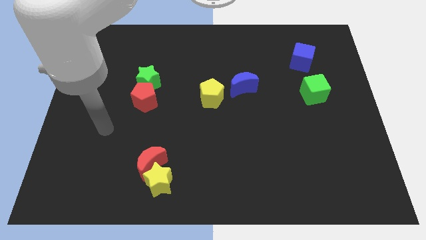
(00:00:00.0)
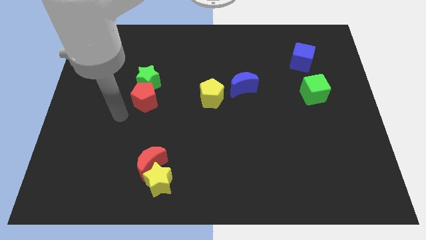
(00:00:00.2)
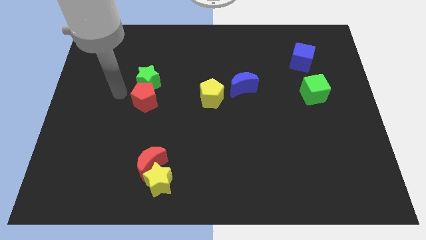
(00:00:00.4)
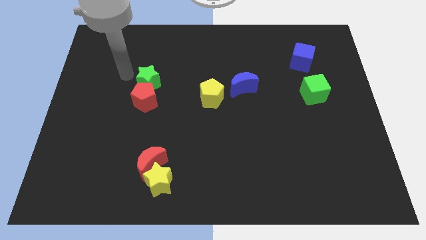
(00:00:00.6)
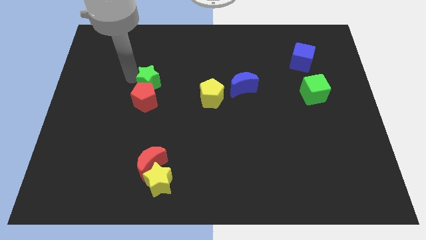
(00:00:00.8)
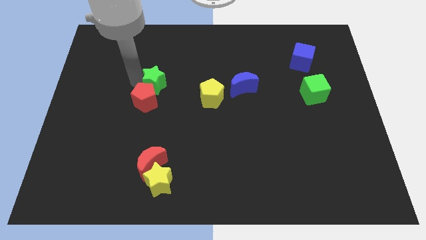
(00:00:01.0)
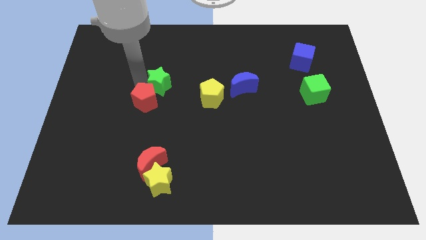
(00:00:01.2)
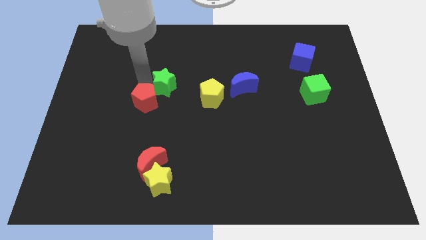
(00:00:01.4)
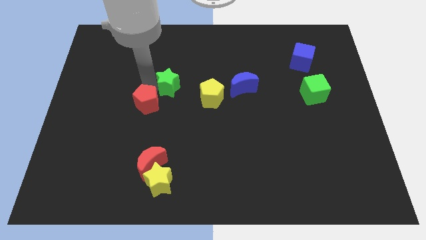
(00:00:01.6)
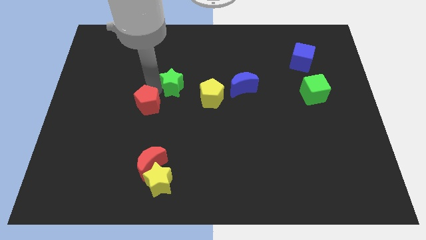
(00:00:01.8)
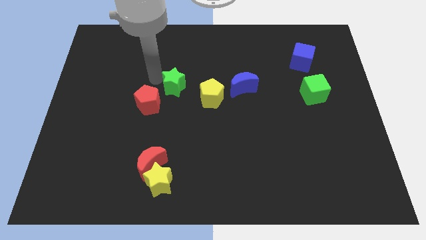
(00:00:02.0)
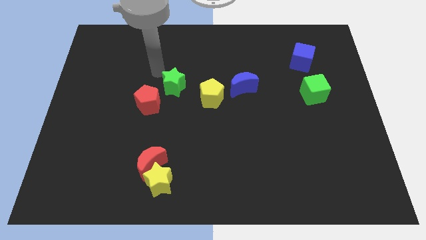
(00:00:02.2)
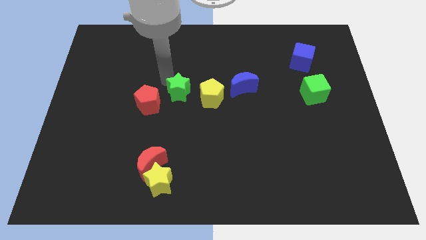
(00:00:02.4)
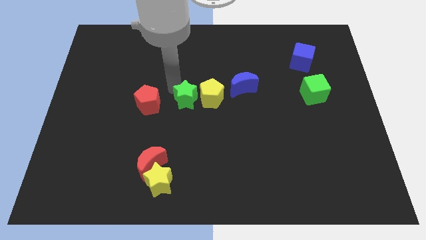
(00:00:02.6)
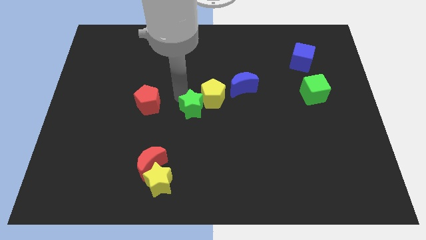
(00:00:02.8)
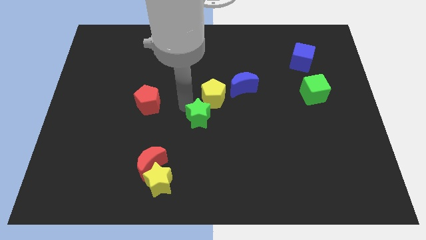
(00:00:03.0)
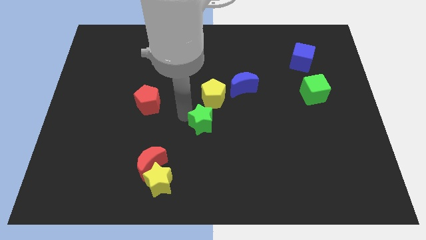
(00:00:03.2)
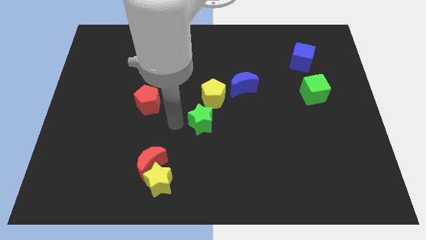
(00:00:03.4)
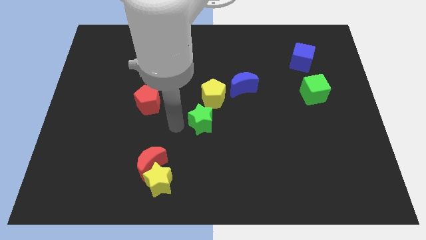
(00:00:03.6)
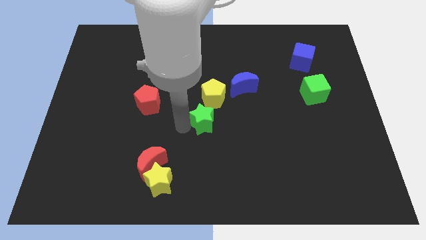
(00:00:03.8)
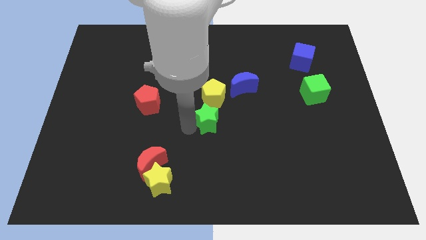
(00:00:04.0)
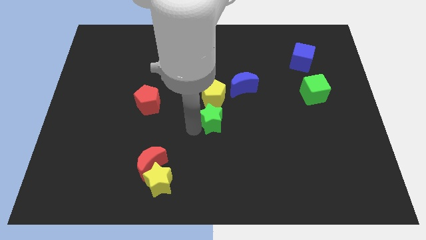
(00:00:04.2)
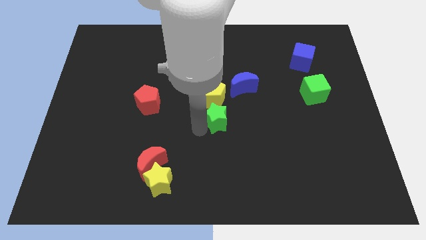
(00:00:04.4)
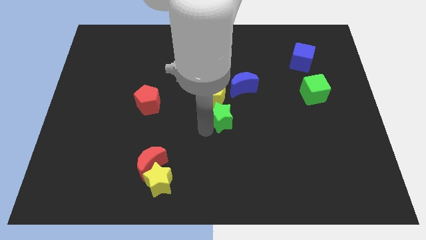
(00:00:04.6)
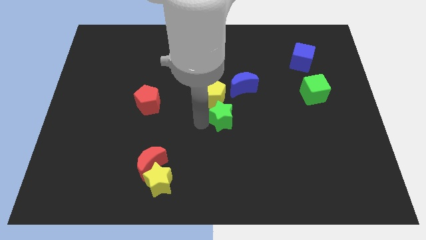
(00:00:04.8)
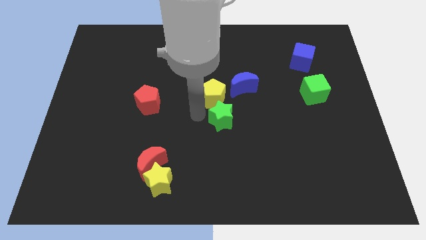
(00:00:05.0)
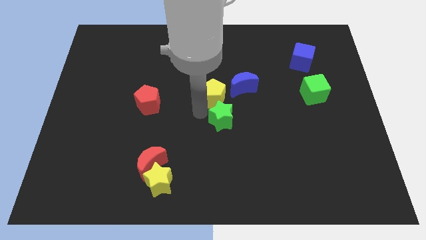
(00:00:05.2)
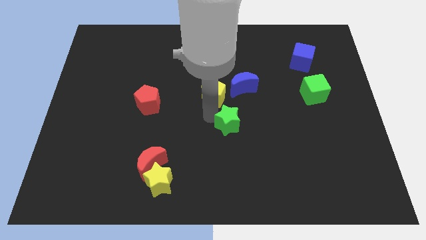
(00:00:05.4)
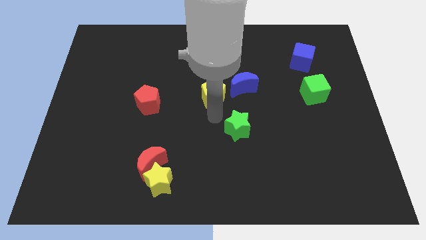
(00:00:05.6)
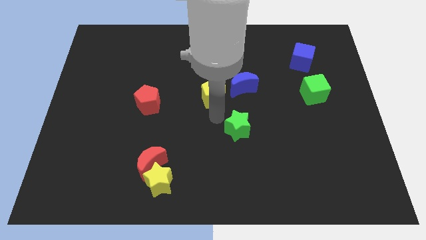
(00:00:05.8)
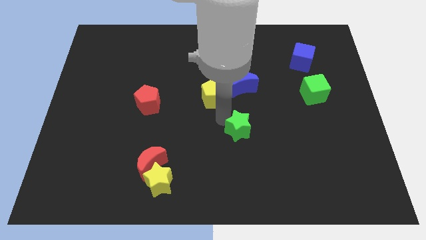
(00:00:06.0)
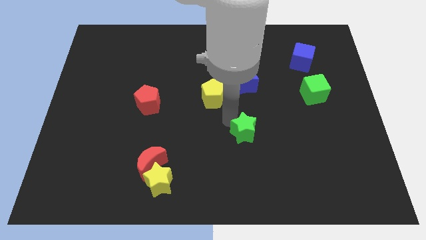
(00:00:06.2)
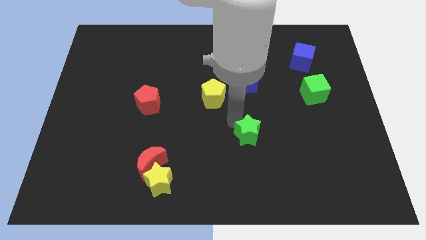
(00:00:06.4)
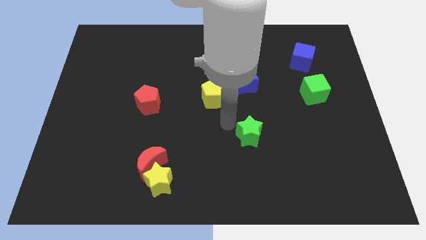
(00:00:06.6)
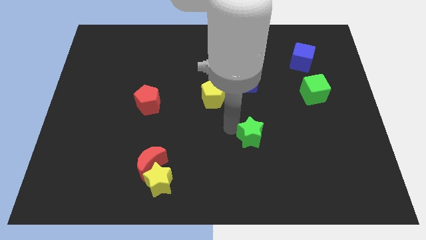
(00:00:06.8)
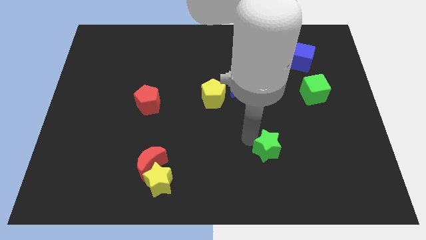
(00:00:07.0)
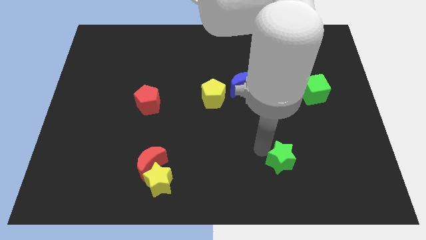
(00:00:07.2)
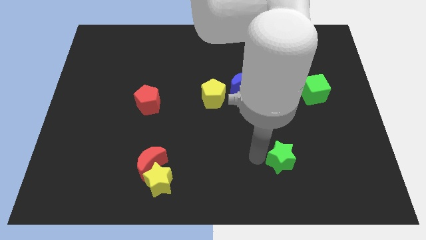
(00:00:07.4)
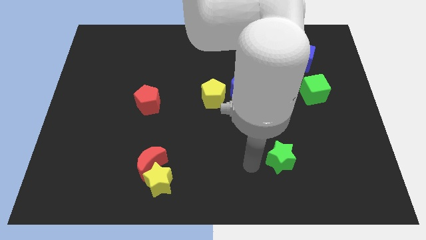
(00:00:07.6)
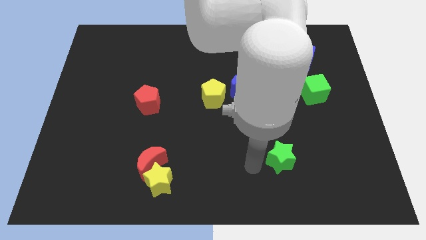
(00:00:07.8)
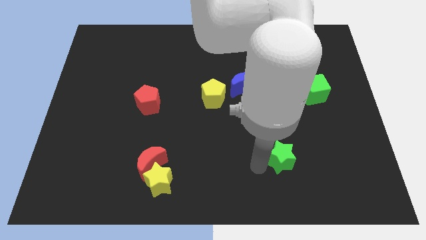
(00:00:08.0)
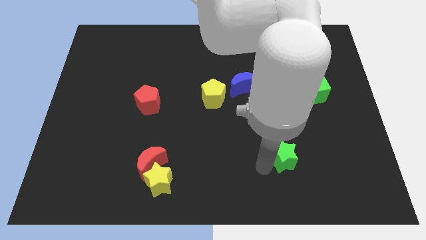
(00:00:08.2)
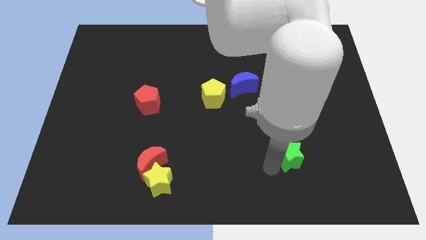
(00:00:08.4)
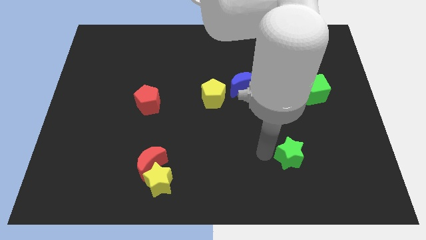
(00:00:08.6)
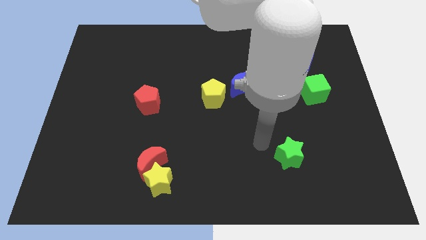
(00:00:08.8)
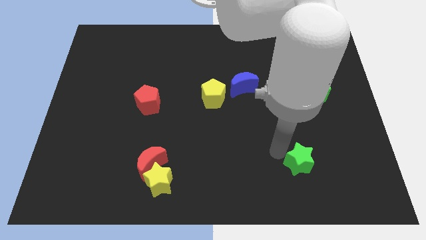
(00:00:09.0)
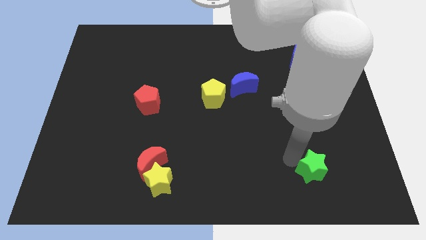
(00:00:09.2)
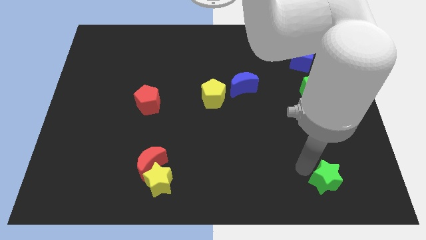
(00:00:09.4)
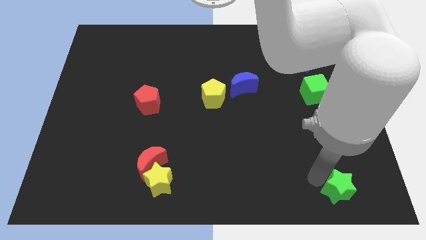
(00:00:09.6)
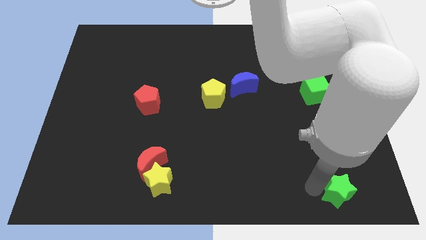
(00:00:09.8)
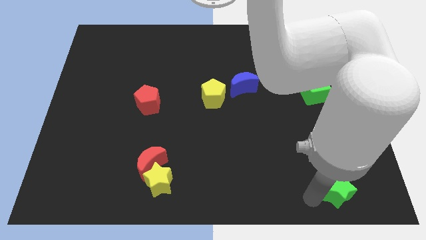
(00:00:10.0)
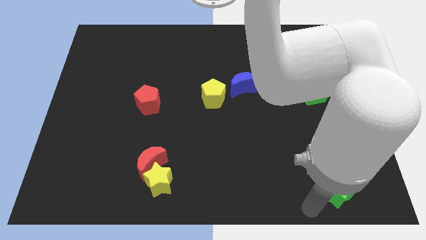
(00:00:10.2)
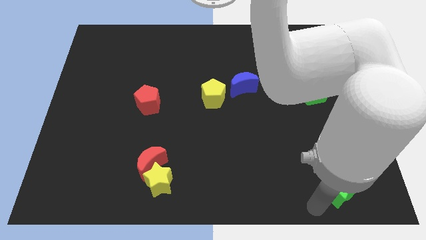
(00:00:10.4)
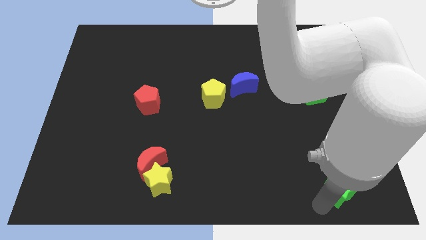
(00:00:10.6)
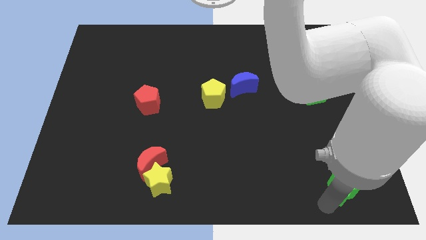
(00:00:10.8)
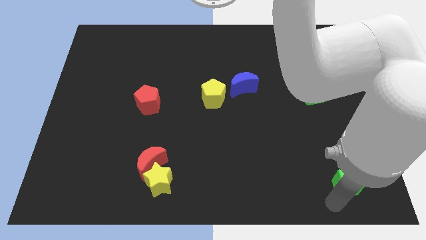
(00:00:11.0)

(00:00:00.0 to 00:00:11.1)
put the green star to the bottom right of the board

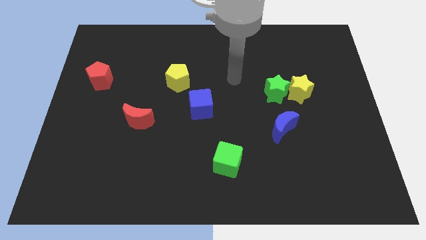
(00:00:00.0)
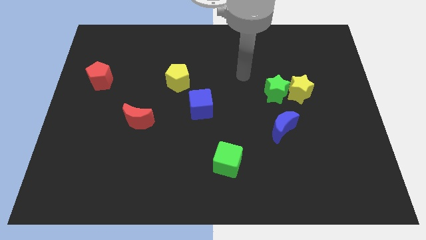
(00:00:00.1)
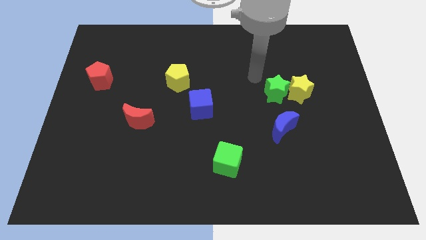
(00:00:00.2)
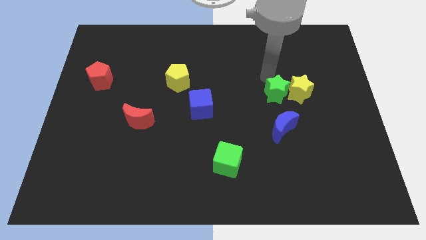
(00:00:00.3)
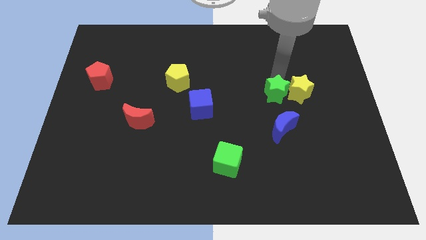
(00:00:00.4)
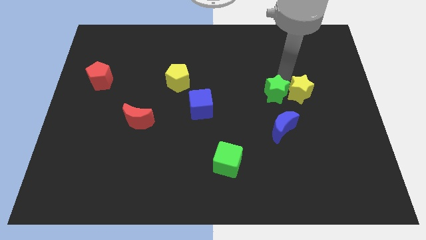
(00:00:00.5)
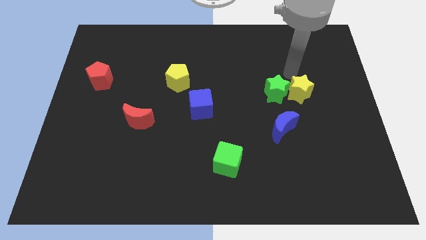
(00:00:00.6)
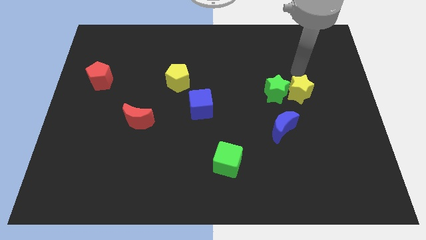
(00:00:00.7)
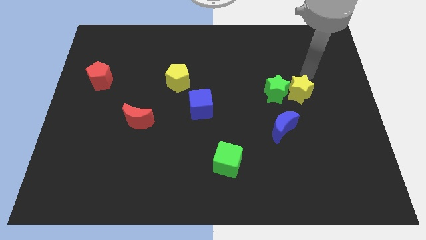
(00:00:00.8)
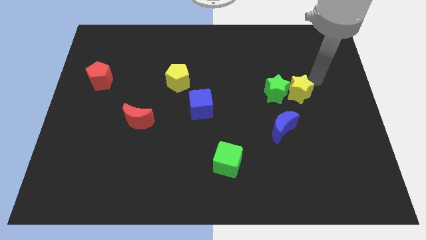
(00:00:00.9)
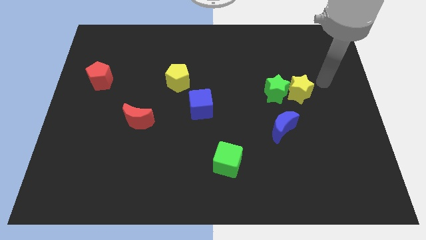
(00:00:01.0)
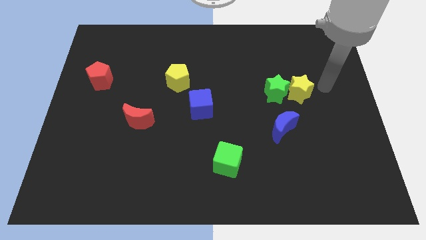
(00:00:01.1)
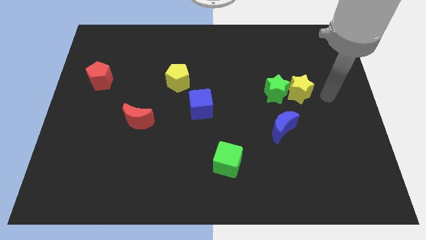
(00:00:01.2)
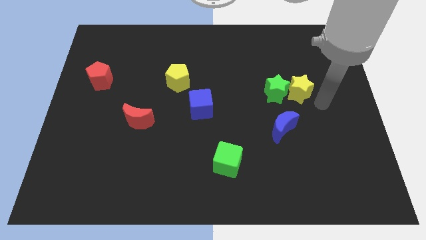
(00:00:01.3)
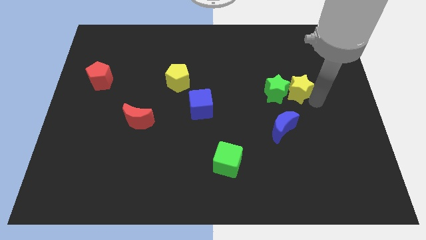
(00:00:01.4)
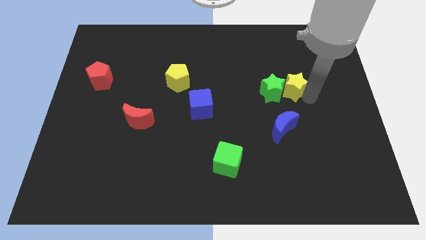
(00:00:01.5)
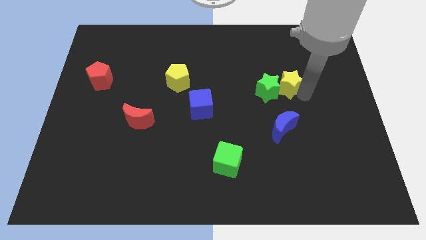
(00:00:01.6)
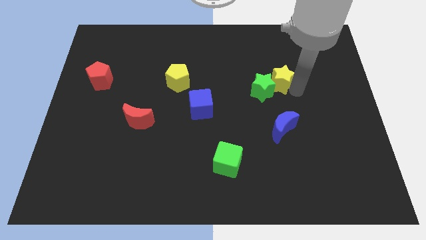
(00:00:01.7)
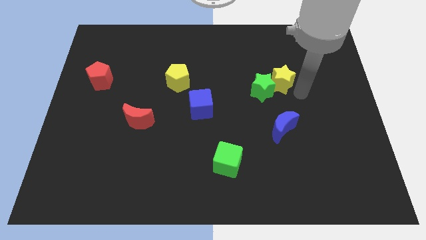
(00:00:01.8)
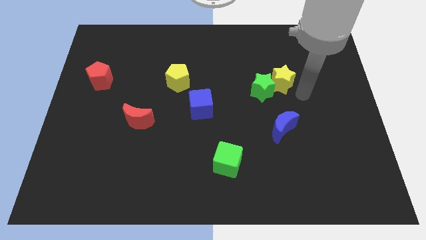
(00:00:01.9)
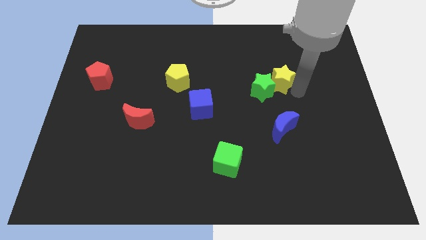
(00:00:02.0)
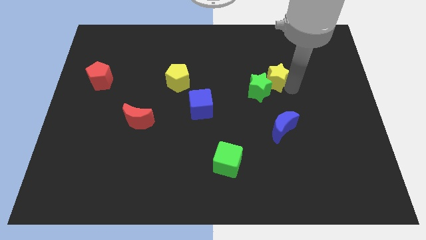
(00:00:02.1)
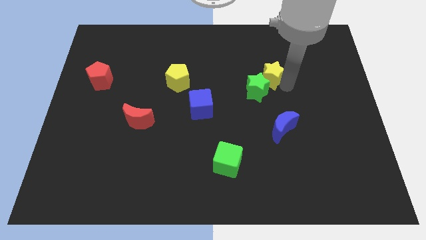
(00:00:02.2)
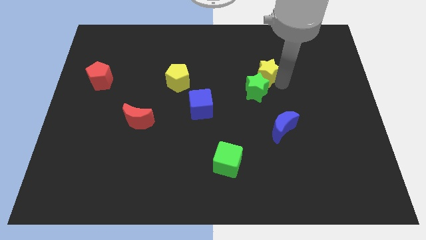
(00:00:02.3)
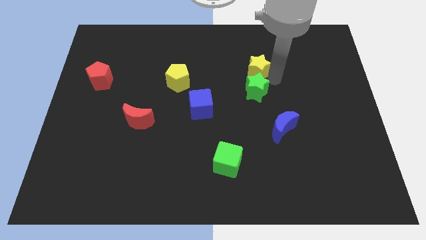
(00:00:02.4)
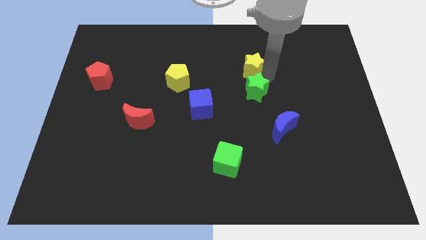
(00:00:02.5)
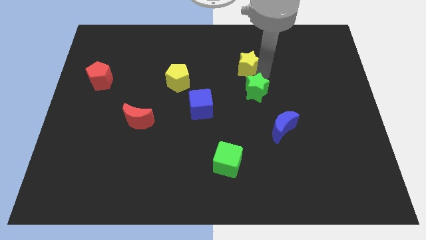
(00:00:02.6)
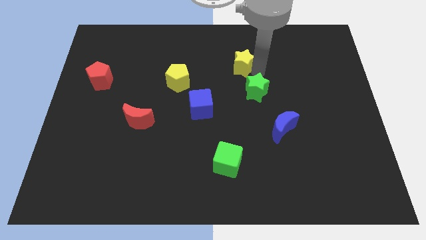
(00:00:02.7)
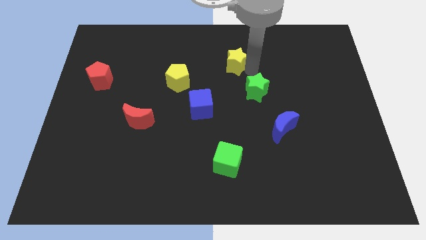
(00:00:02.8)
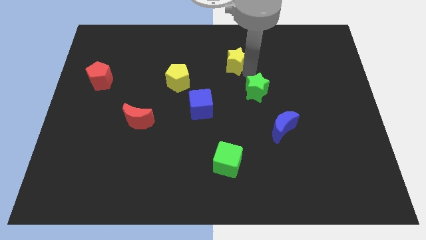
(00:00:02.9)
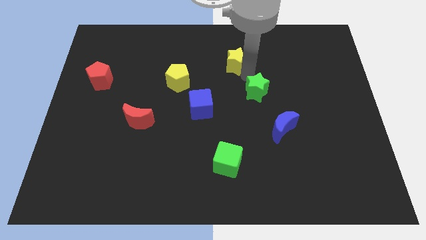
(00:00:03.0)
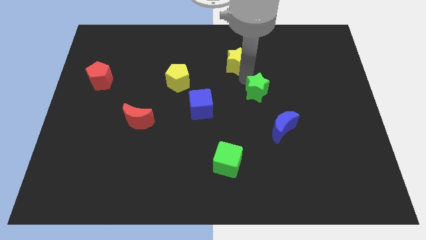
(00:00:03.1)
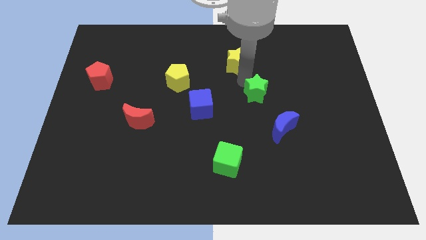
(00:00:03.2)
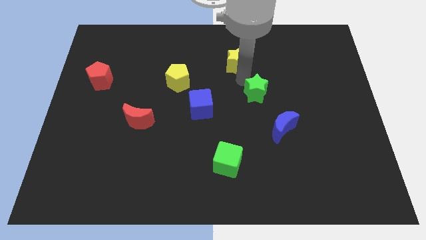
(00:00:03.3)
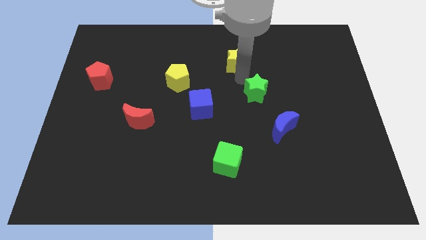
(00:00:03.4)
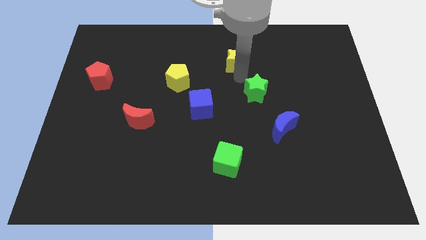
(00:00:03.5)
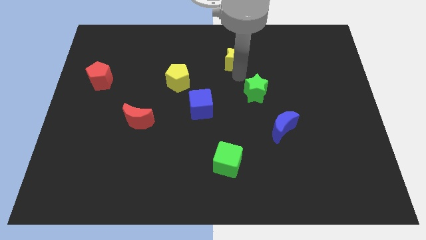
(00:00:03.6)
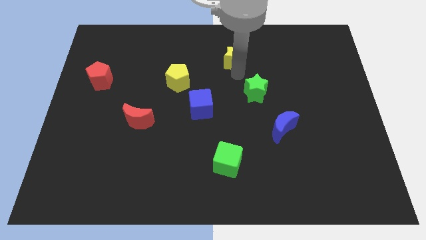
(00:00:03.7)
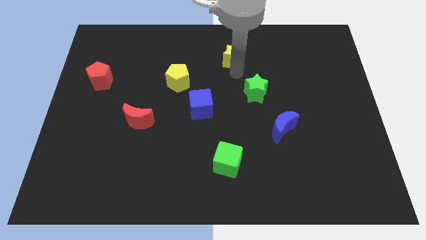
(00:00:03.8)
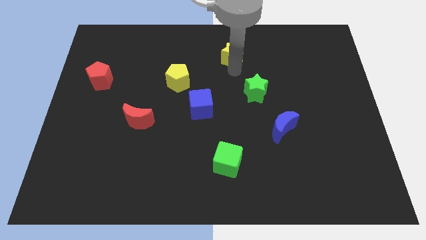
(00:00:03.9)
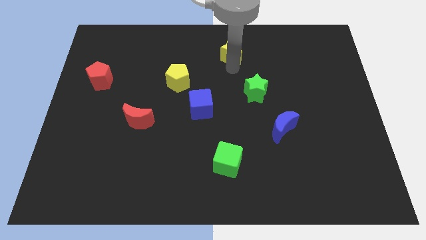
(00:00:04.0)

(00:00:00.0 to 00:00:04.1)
push the yellow star to the top
